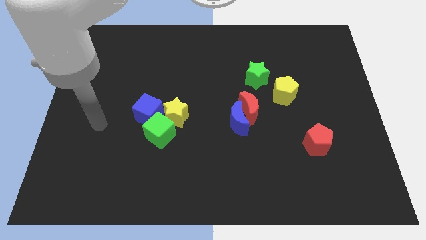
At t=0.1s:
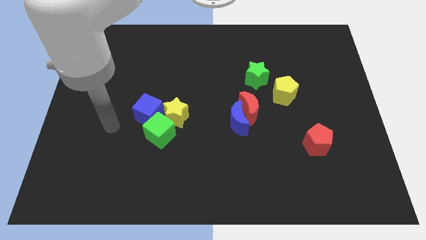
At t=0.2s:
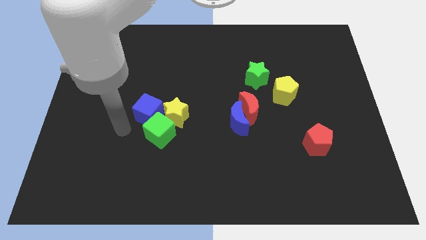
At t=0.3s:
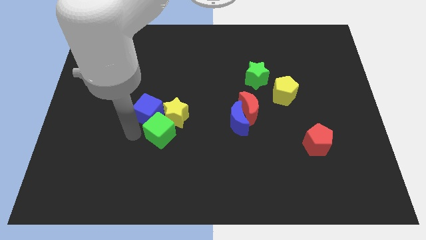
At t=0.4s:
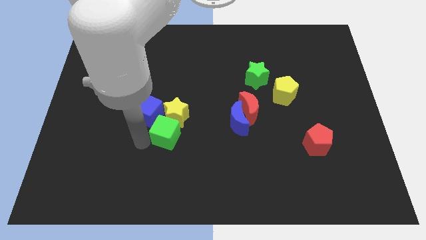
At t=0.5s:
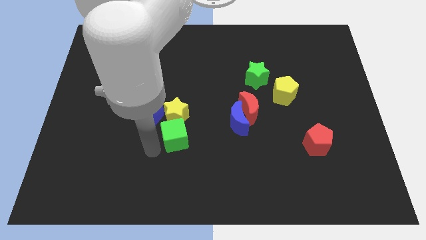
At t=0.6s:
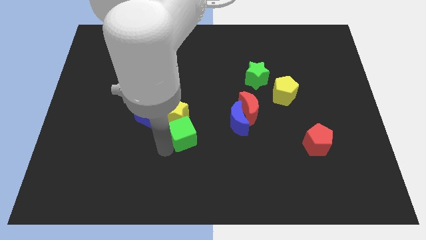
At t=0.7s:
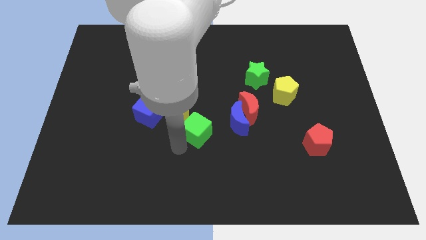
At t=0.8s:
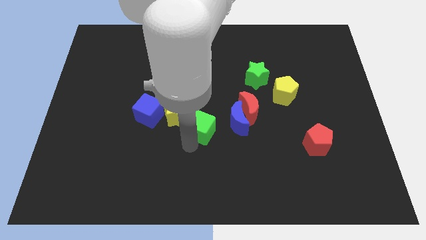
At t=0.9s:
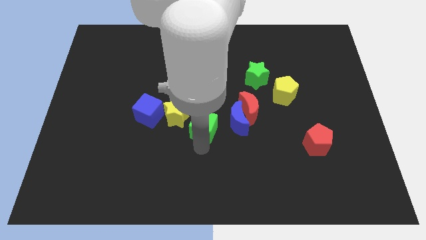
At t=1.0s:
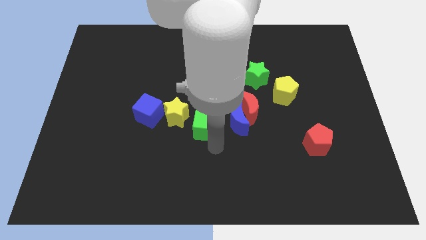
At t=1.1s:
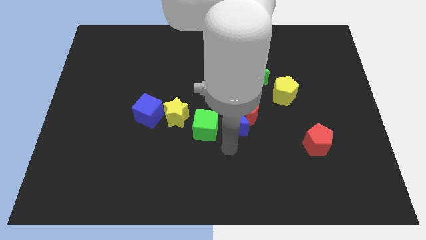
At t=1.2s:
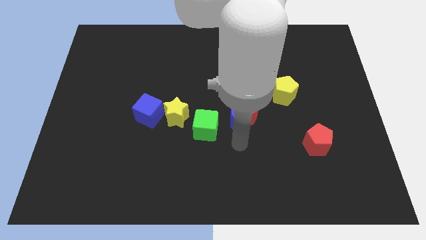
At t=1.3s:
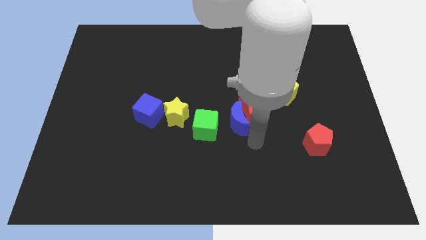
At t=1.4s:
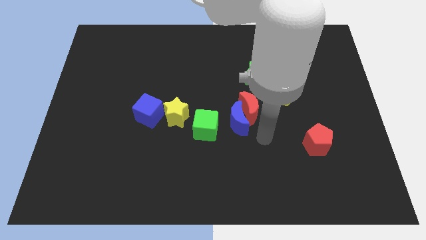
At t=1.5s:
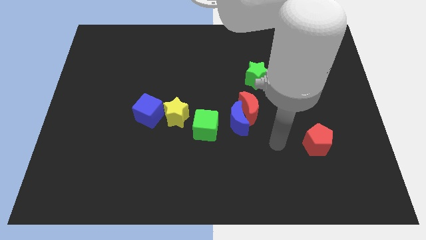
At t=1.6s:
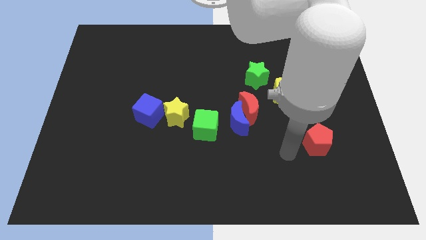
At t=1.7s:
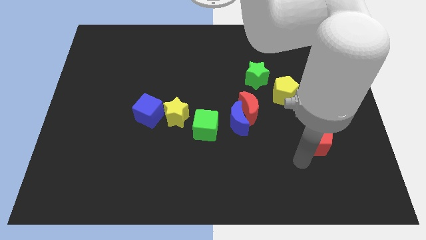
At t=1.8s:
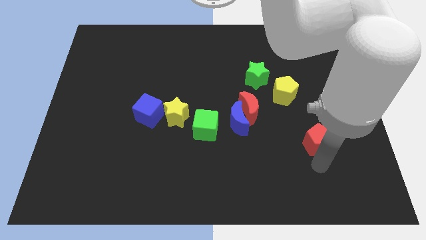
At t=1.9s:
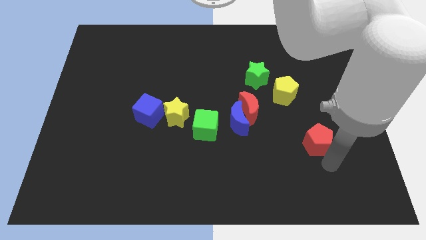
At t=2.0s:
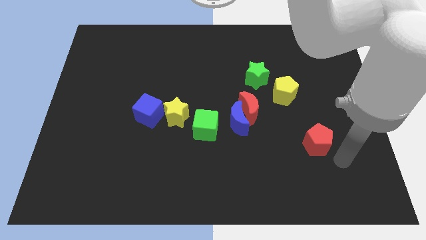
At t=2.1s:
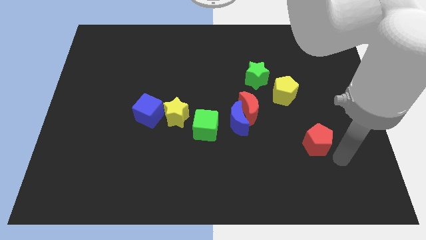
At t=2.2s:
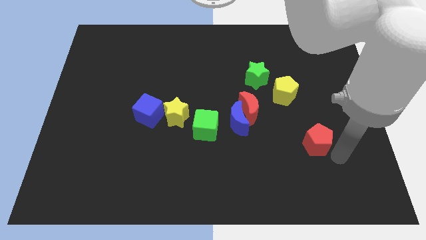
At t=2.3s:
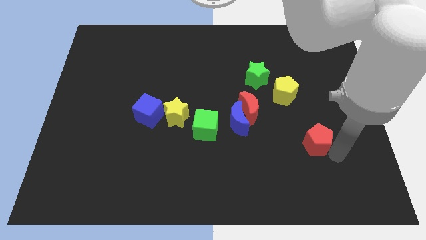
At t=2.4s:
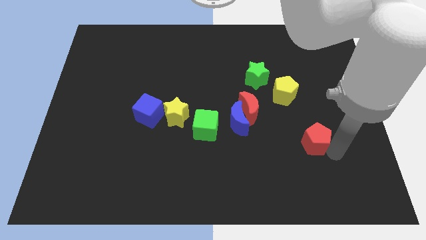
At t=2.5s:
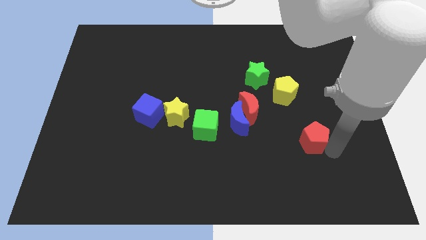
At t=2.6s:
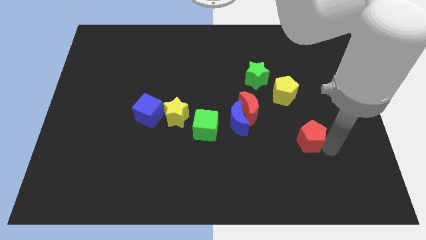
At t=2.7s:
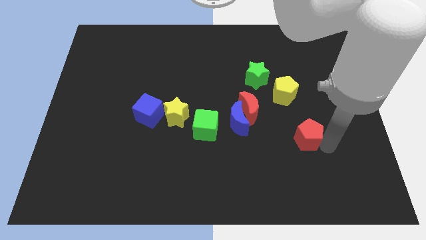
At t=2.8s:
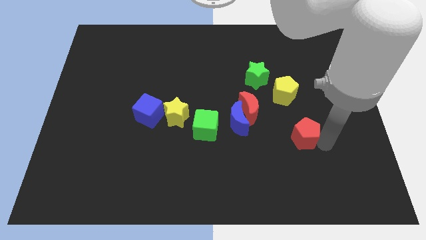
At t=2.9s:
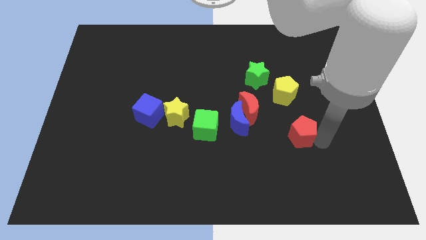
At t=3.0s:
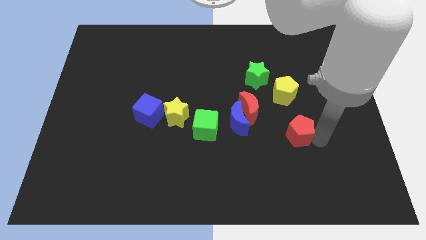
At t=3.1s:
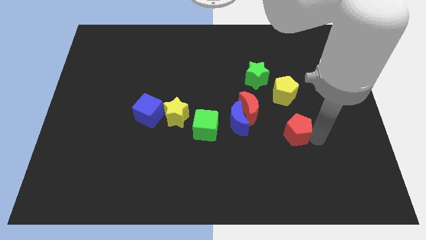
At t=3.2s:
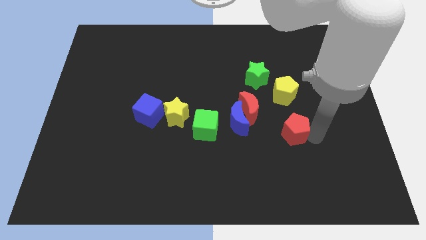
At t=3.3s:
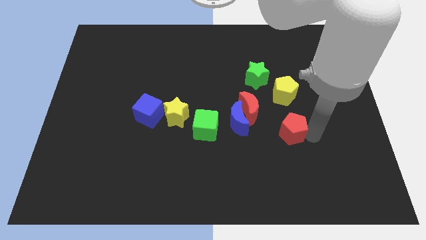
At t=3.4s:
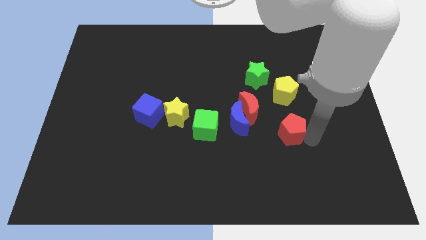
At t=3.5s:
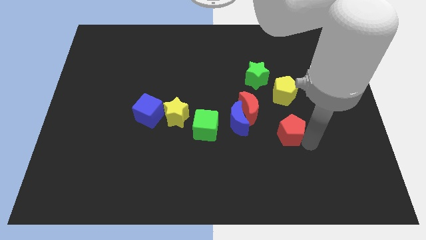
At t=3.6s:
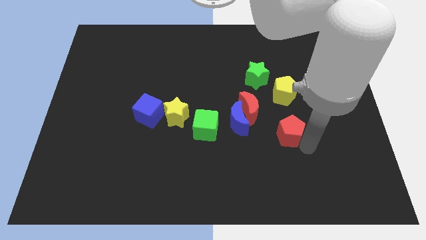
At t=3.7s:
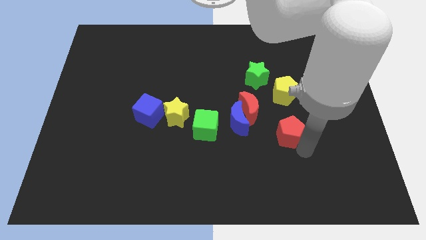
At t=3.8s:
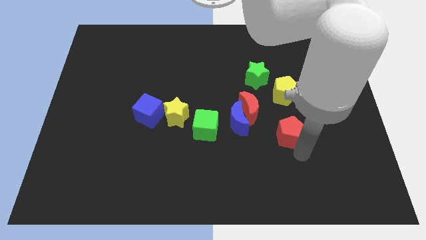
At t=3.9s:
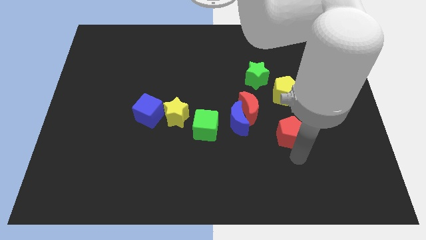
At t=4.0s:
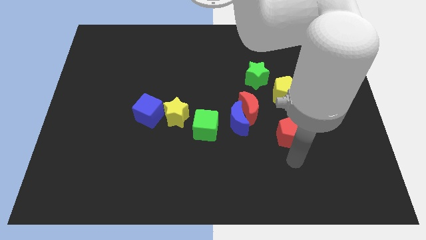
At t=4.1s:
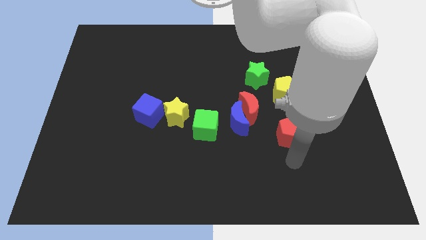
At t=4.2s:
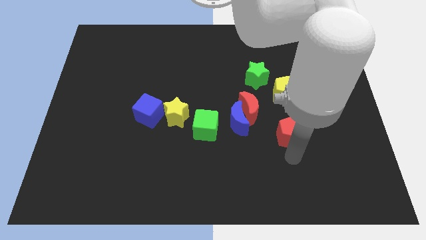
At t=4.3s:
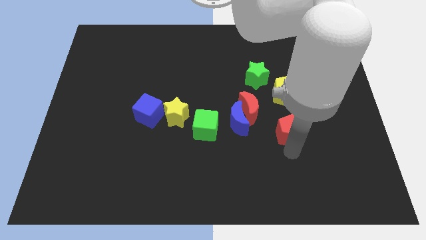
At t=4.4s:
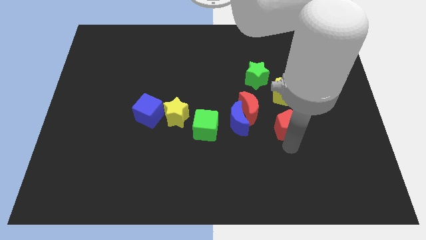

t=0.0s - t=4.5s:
slightly push the red pentagon up and to the left diagonally

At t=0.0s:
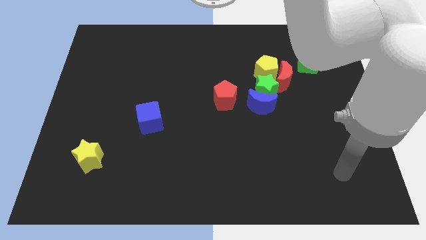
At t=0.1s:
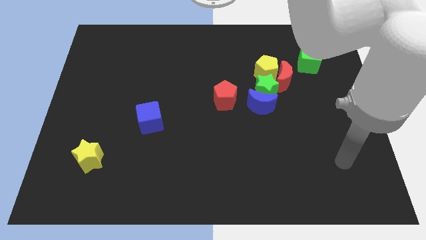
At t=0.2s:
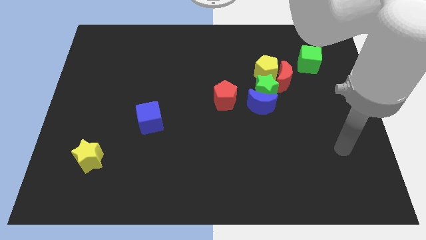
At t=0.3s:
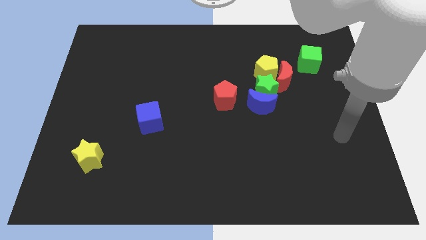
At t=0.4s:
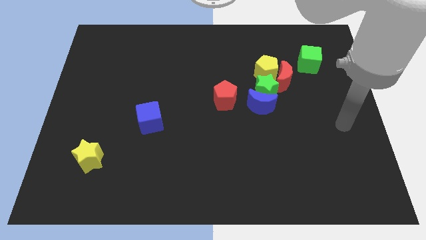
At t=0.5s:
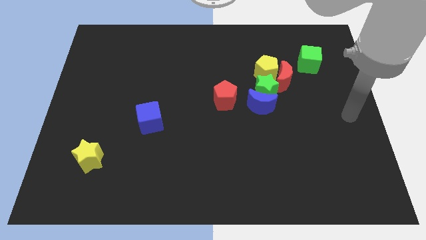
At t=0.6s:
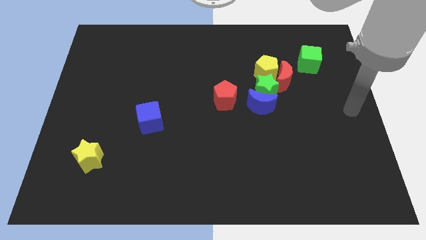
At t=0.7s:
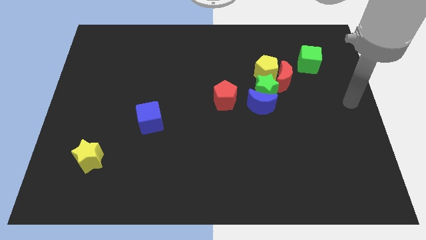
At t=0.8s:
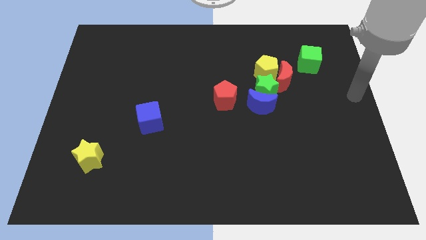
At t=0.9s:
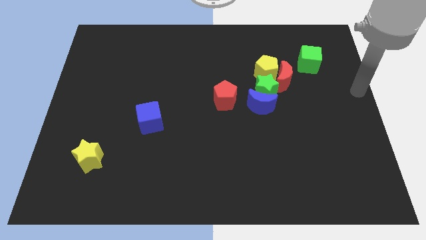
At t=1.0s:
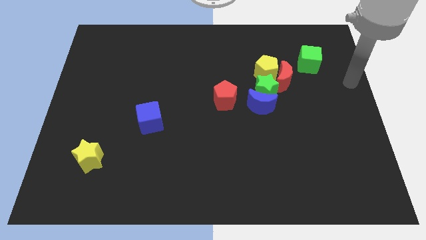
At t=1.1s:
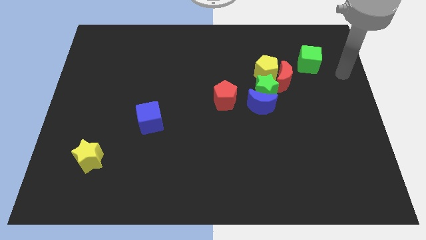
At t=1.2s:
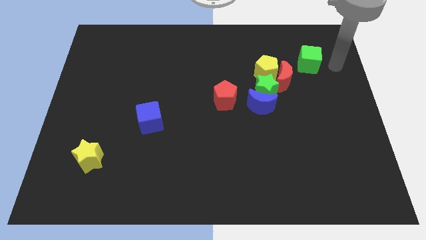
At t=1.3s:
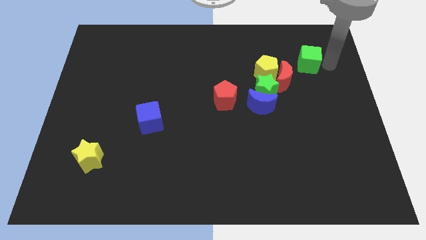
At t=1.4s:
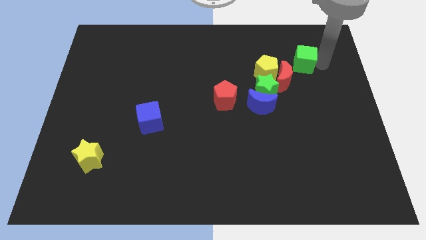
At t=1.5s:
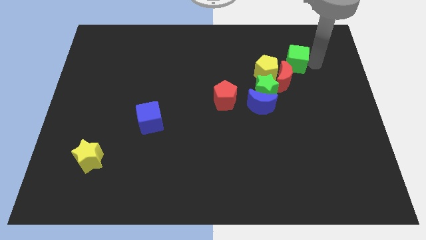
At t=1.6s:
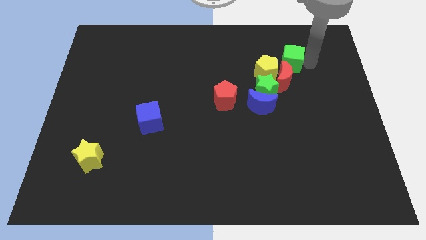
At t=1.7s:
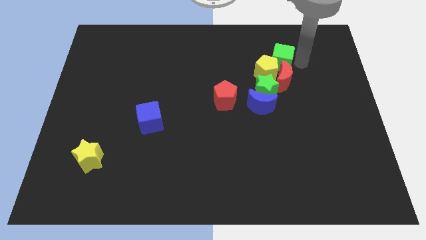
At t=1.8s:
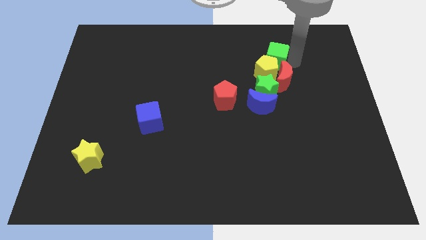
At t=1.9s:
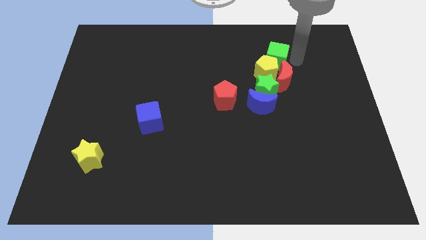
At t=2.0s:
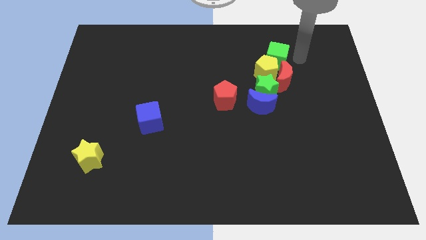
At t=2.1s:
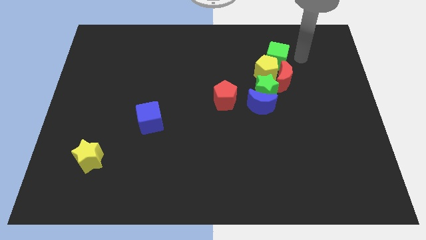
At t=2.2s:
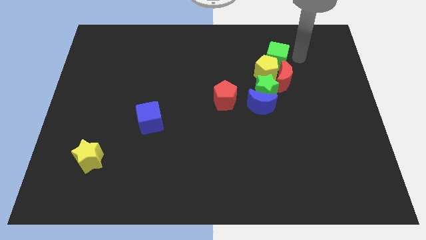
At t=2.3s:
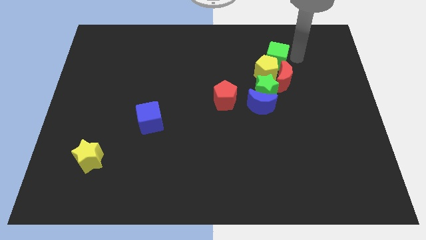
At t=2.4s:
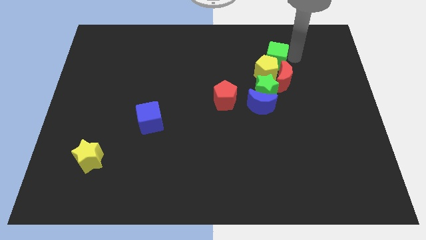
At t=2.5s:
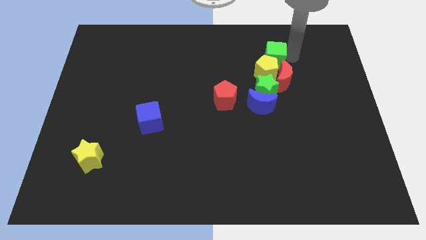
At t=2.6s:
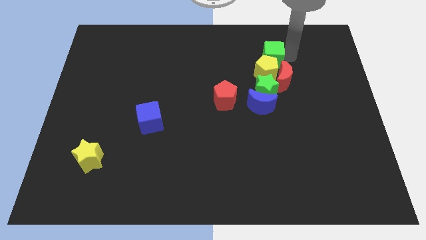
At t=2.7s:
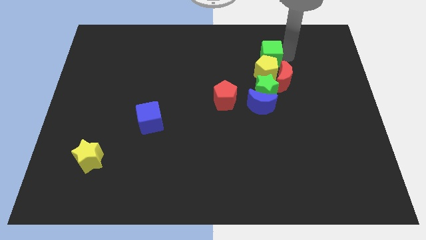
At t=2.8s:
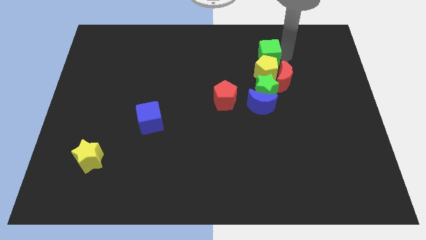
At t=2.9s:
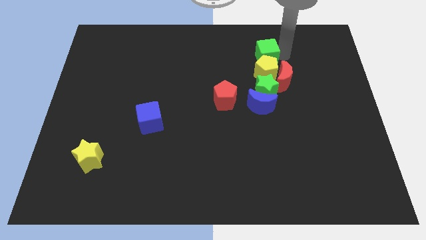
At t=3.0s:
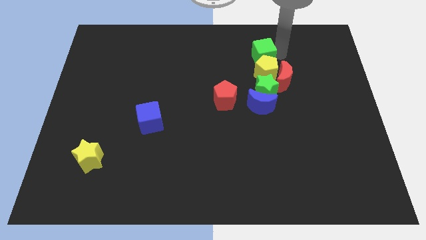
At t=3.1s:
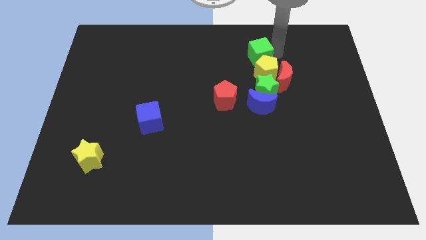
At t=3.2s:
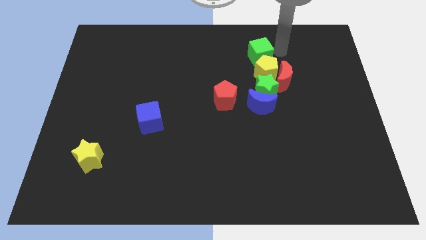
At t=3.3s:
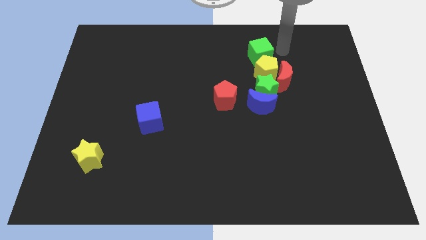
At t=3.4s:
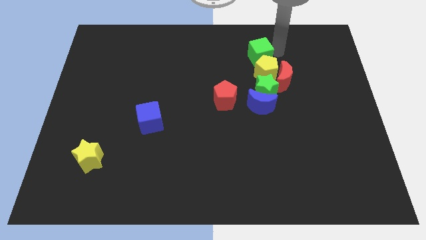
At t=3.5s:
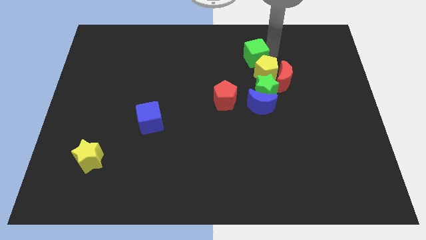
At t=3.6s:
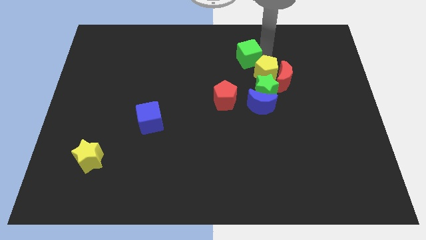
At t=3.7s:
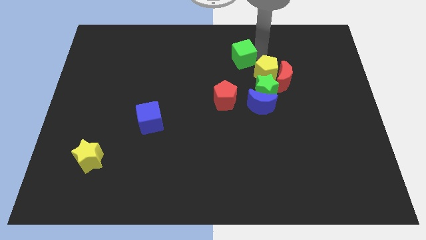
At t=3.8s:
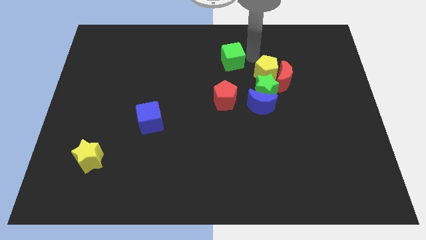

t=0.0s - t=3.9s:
push the green cube left
